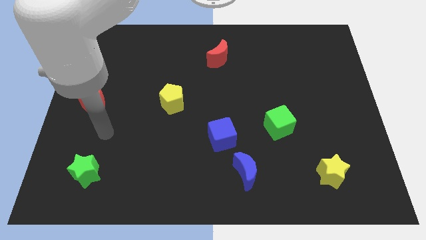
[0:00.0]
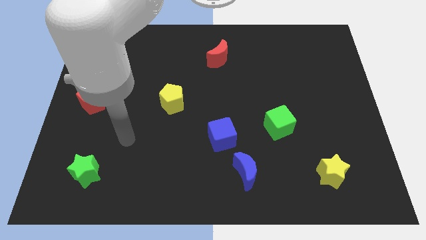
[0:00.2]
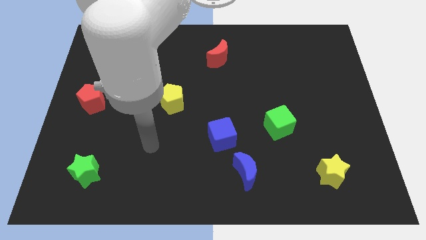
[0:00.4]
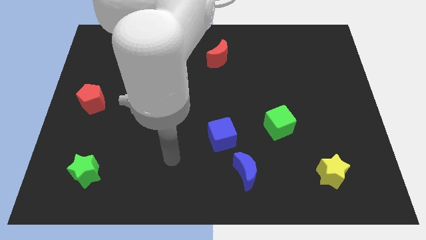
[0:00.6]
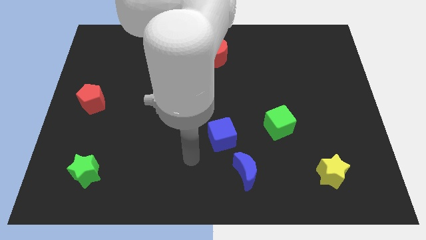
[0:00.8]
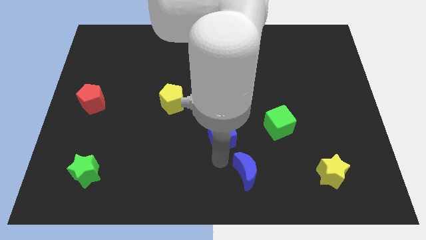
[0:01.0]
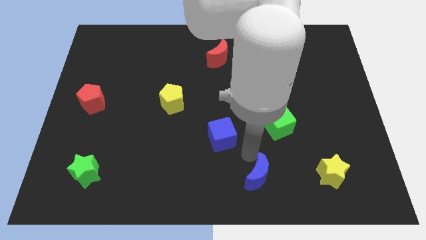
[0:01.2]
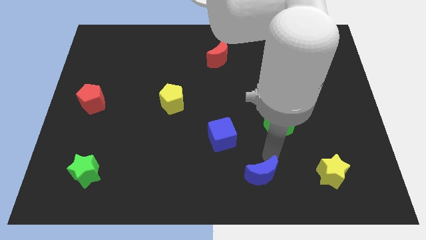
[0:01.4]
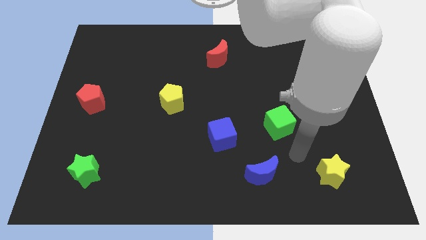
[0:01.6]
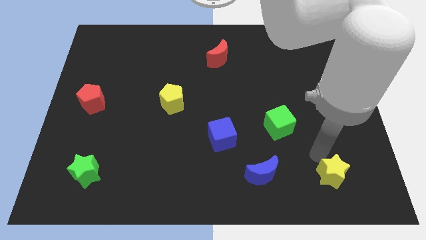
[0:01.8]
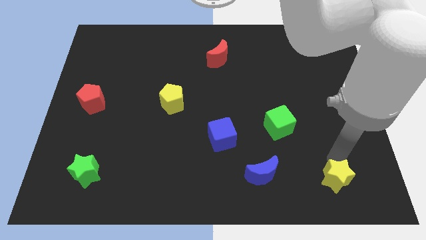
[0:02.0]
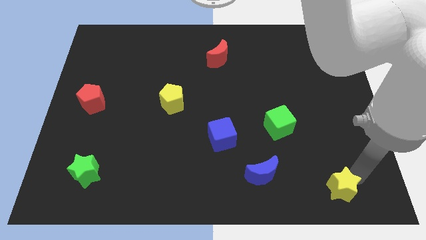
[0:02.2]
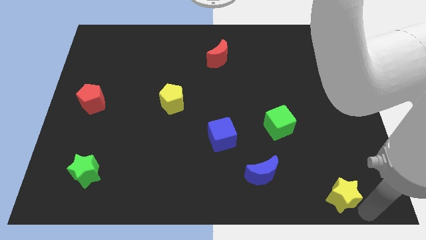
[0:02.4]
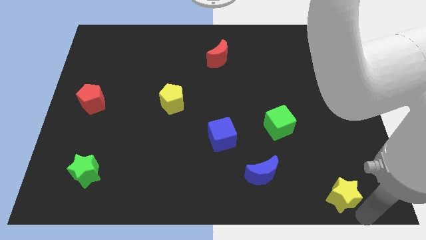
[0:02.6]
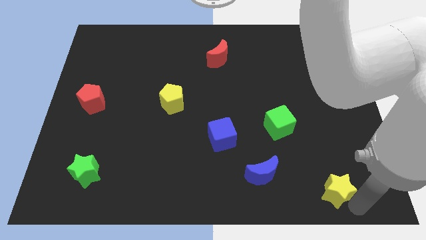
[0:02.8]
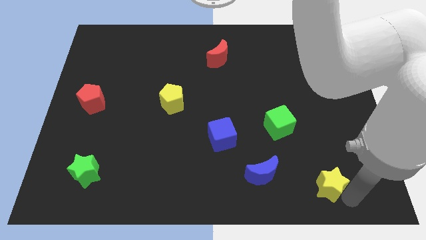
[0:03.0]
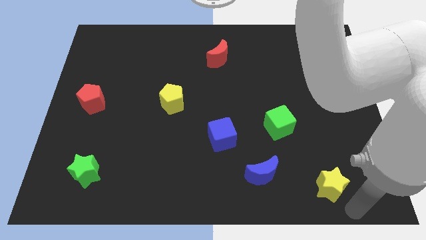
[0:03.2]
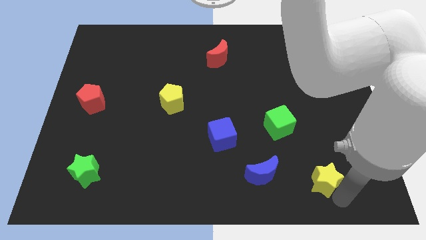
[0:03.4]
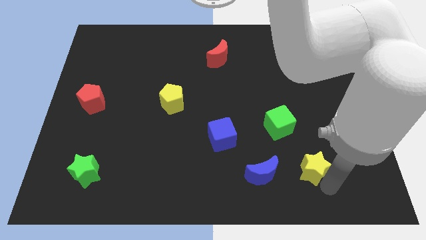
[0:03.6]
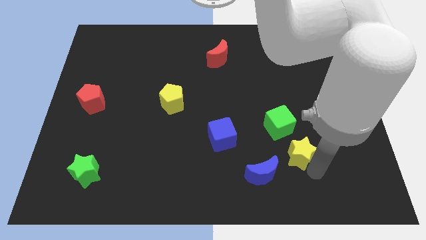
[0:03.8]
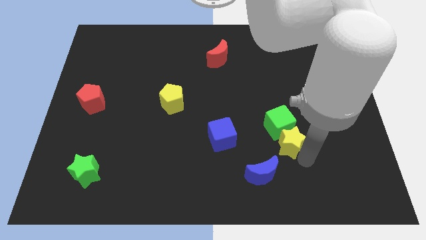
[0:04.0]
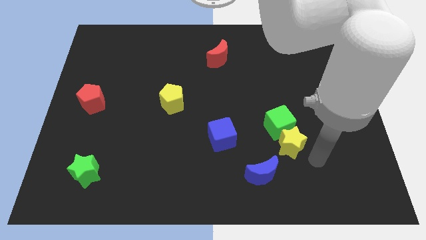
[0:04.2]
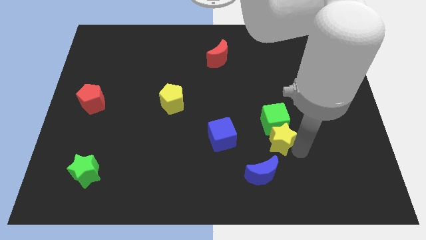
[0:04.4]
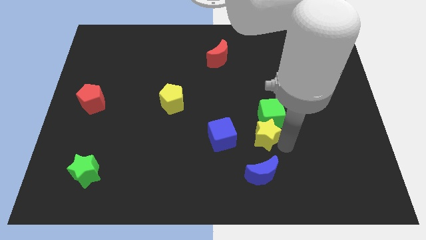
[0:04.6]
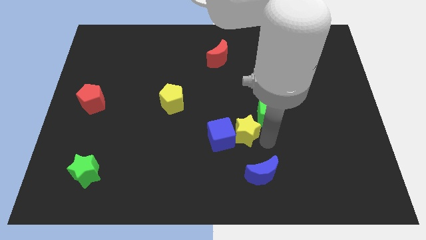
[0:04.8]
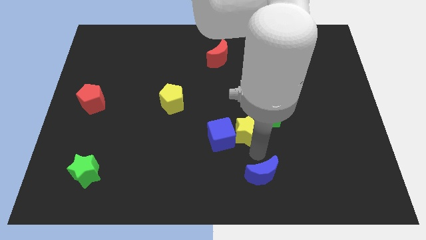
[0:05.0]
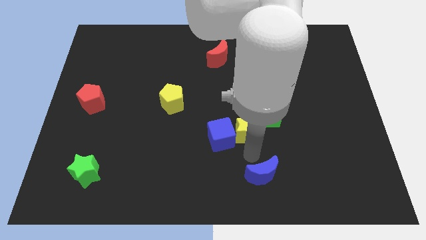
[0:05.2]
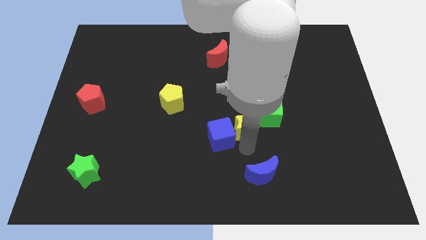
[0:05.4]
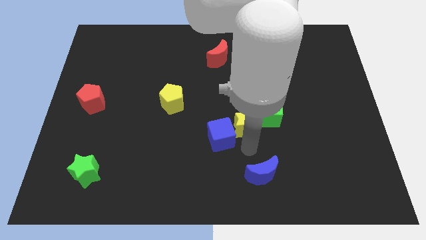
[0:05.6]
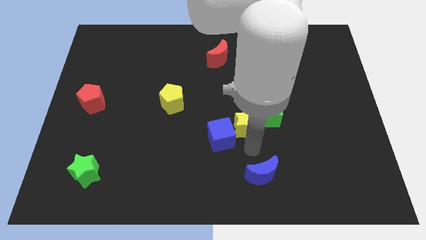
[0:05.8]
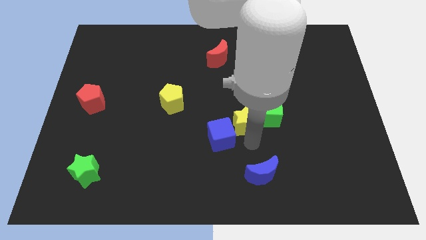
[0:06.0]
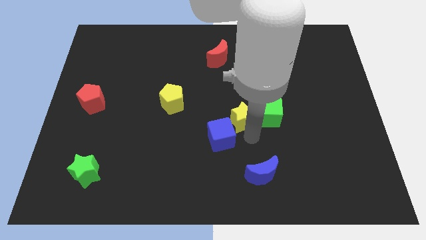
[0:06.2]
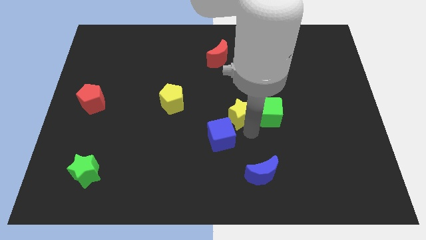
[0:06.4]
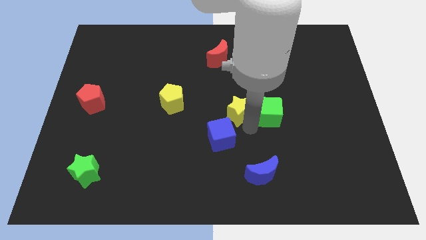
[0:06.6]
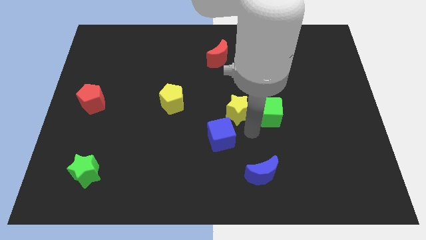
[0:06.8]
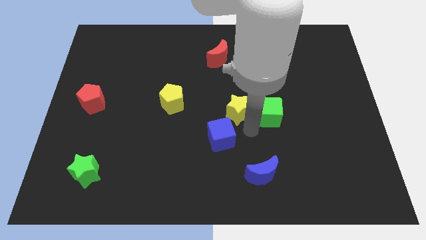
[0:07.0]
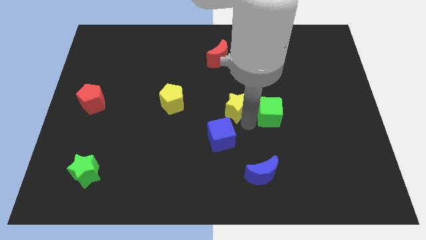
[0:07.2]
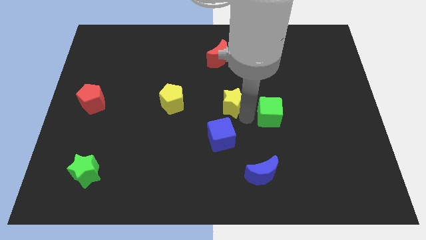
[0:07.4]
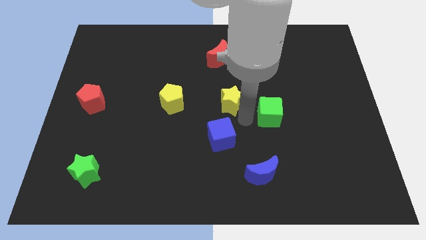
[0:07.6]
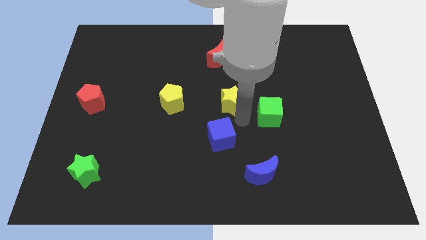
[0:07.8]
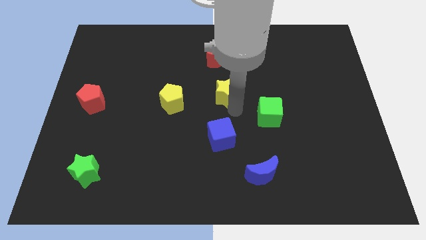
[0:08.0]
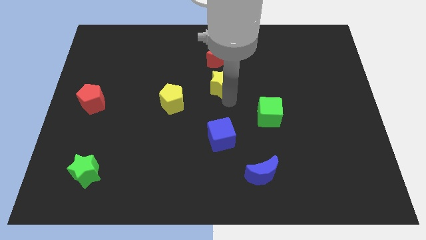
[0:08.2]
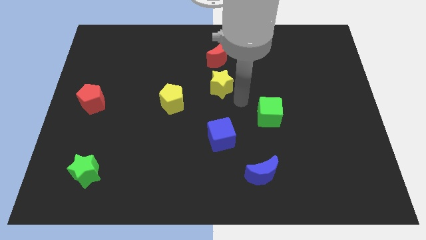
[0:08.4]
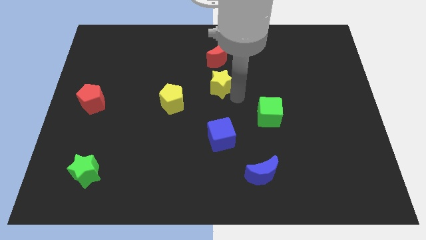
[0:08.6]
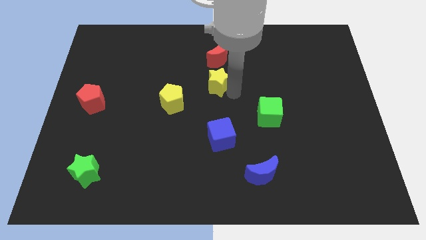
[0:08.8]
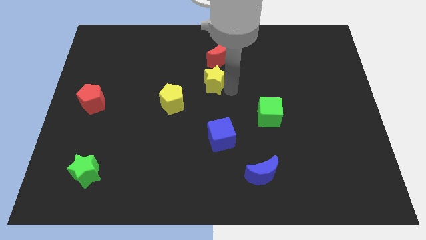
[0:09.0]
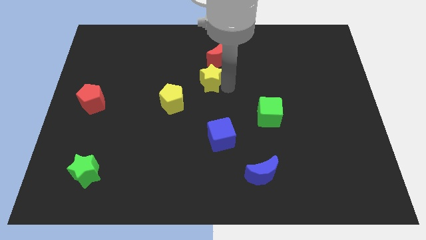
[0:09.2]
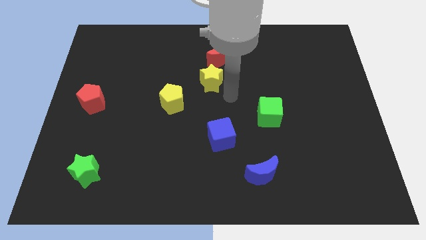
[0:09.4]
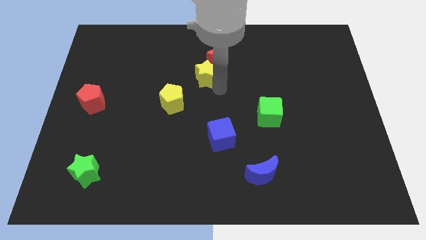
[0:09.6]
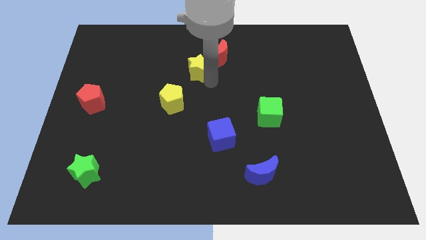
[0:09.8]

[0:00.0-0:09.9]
slide the yellow star to the left of the red moon

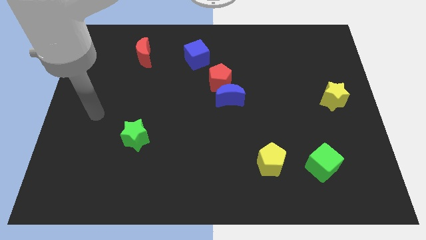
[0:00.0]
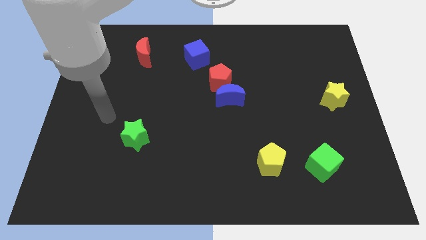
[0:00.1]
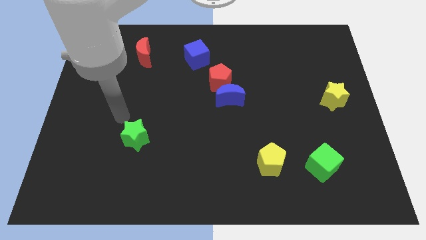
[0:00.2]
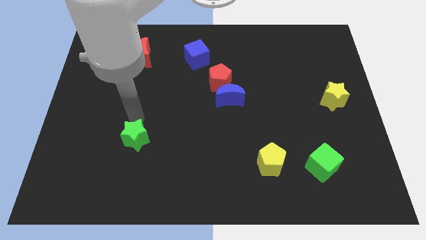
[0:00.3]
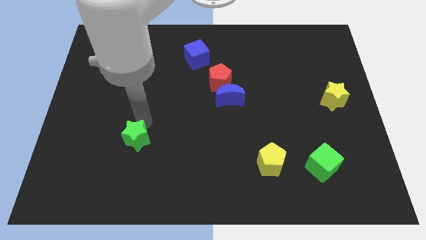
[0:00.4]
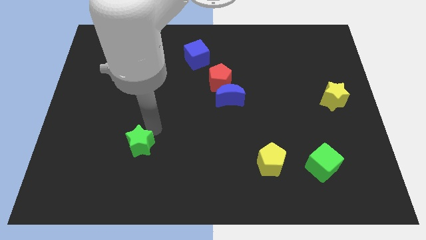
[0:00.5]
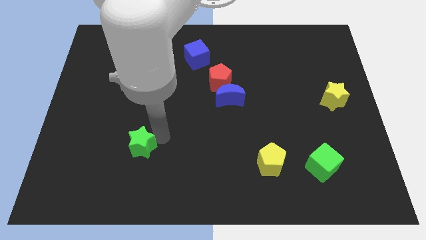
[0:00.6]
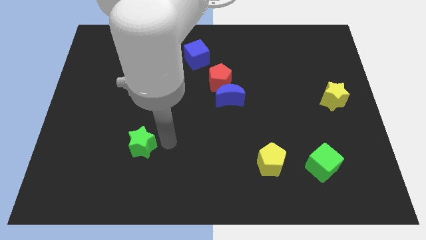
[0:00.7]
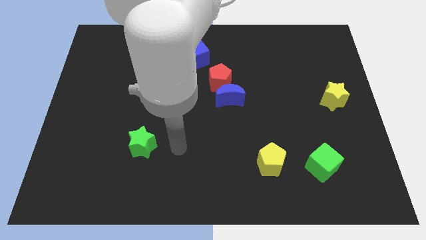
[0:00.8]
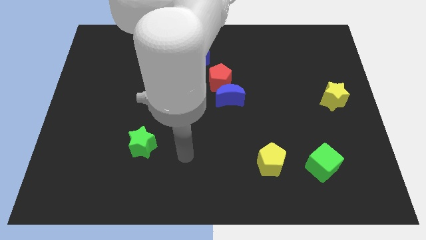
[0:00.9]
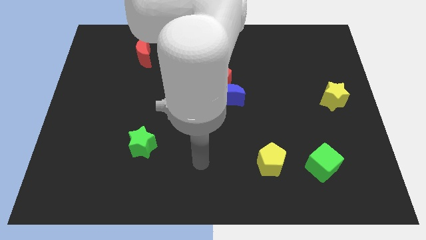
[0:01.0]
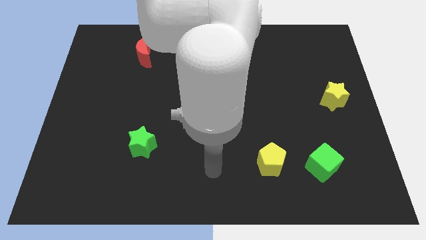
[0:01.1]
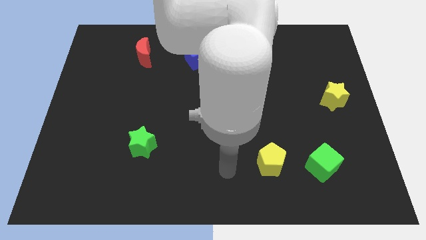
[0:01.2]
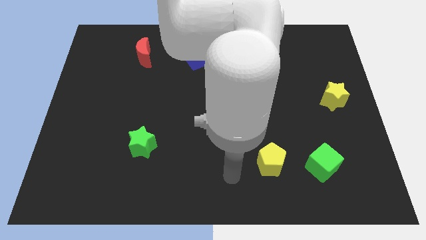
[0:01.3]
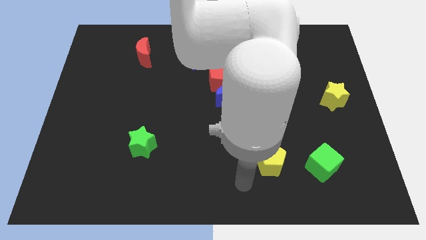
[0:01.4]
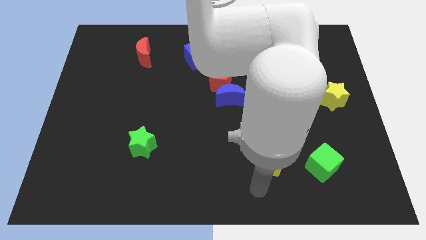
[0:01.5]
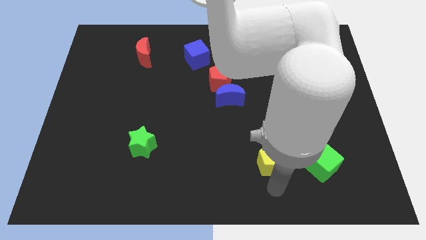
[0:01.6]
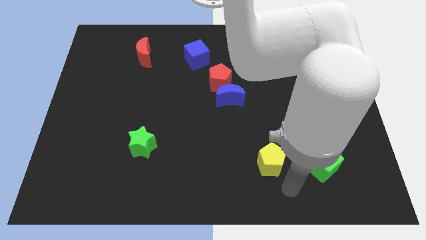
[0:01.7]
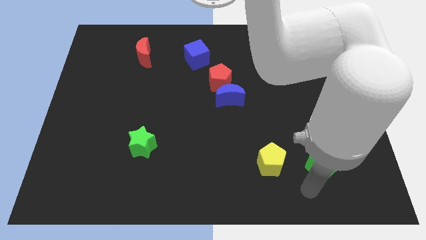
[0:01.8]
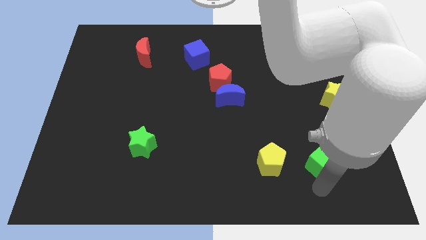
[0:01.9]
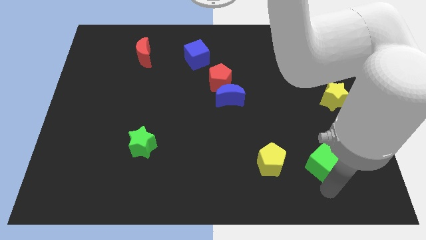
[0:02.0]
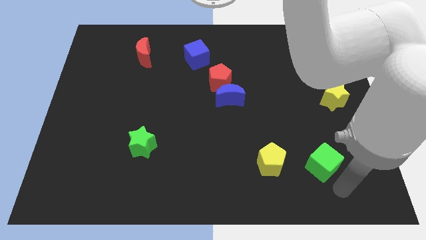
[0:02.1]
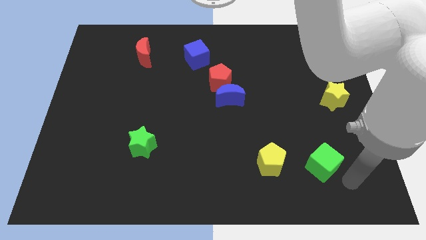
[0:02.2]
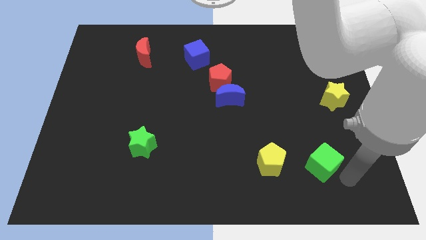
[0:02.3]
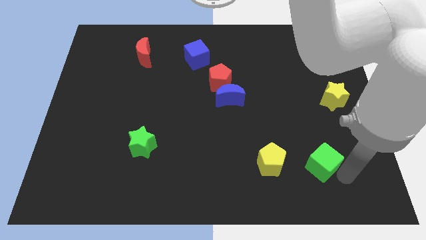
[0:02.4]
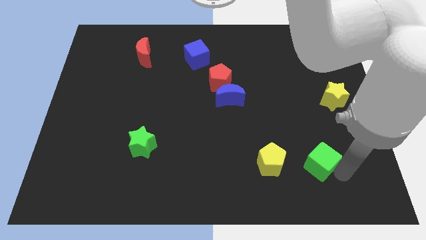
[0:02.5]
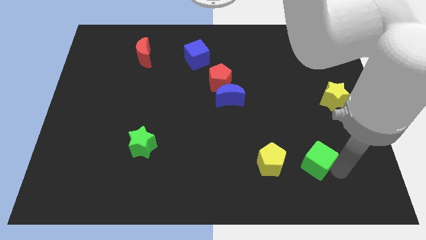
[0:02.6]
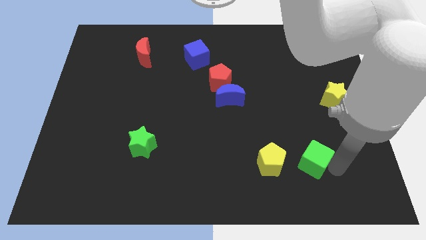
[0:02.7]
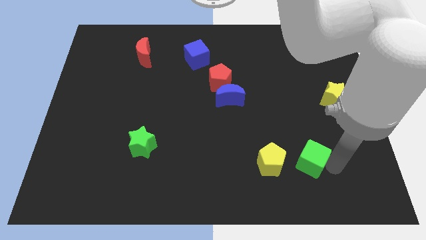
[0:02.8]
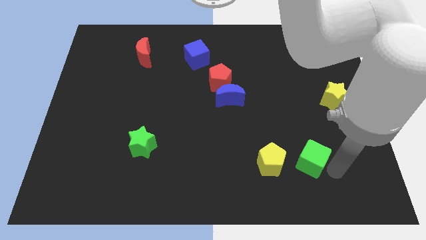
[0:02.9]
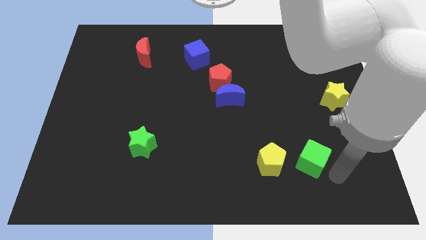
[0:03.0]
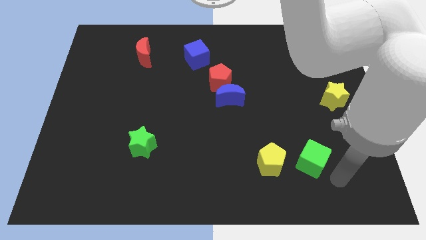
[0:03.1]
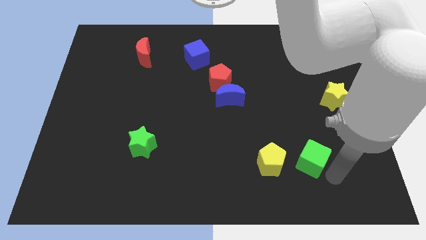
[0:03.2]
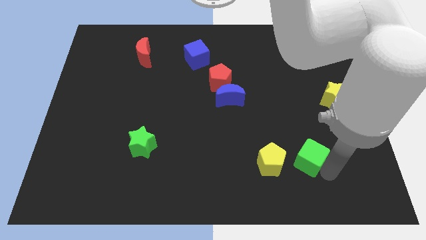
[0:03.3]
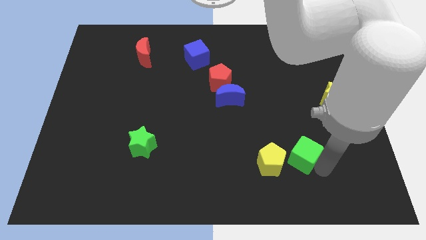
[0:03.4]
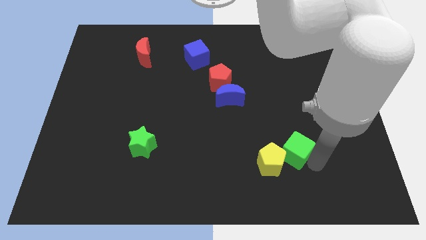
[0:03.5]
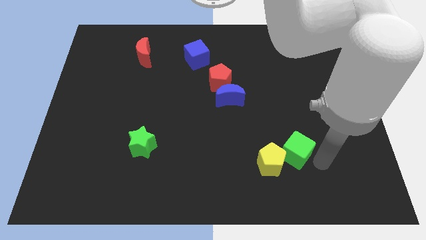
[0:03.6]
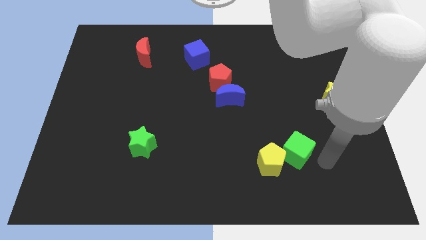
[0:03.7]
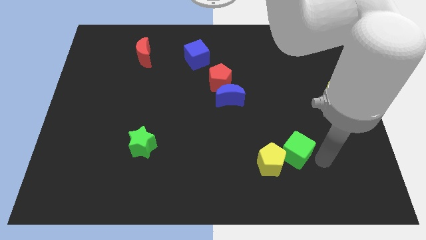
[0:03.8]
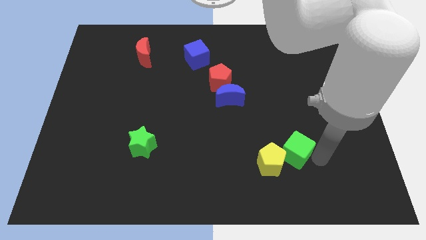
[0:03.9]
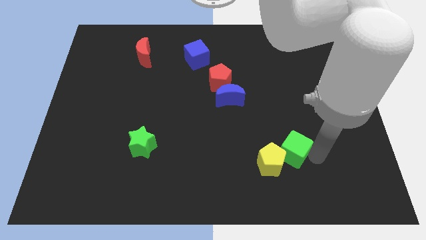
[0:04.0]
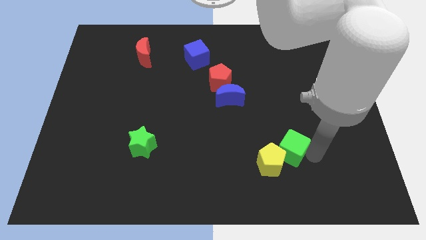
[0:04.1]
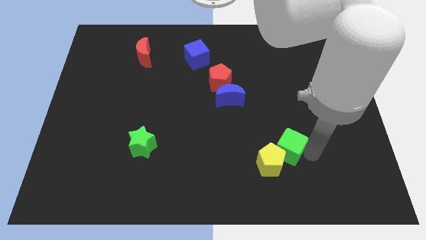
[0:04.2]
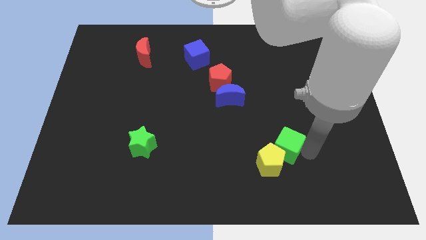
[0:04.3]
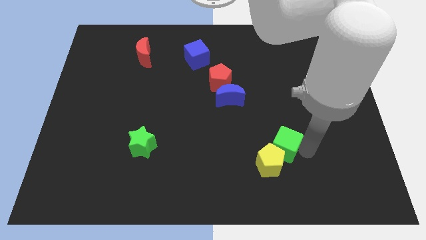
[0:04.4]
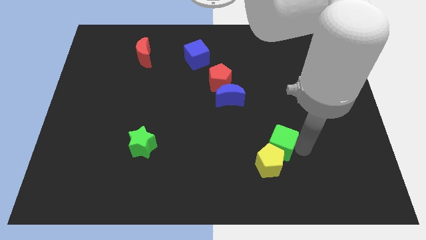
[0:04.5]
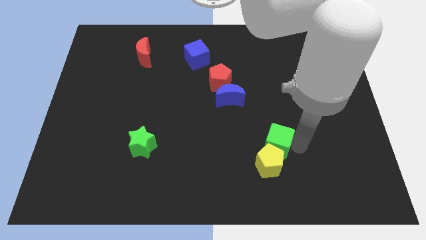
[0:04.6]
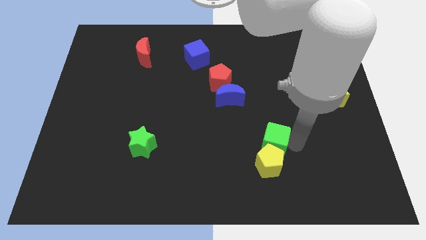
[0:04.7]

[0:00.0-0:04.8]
move the green cube diagonally up and to the left of the yellow pentagon
